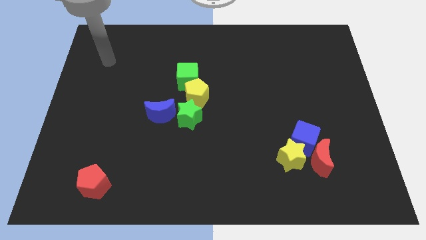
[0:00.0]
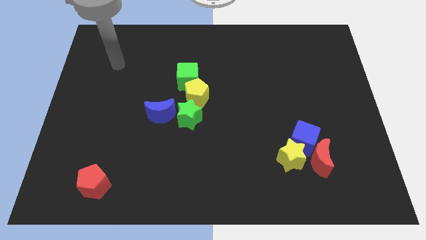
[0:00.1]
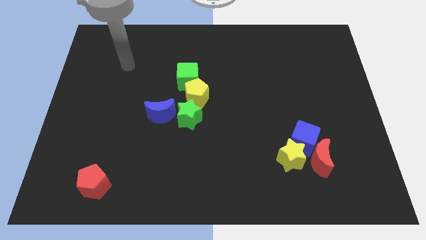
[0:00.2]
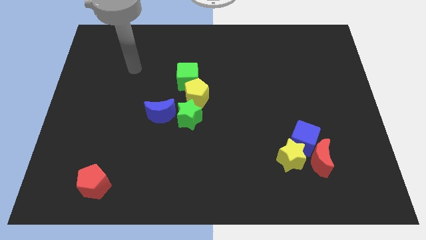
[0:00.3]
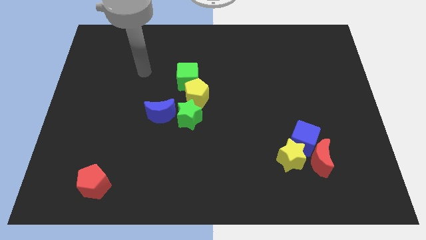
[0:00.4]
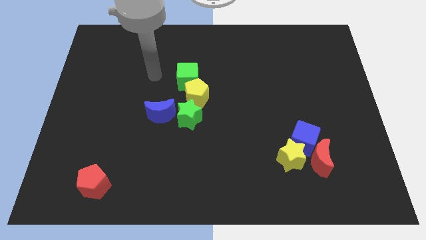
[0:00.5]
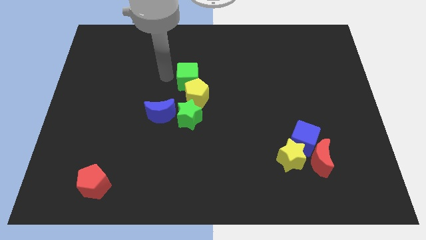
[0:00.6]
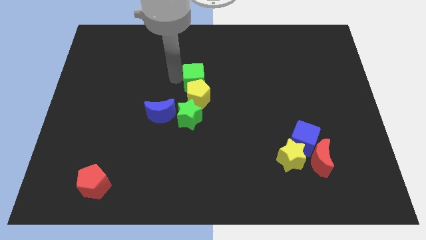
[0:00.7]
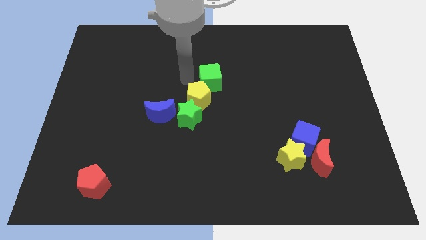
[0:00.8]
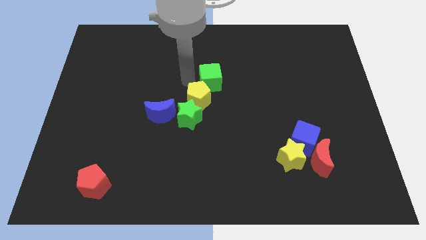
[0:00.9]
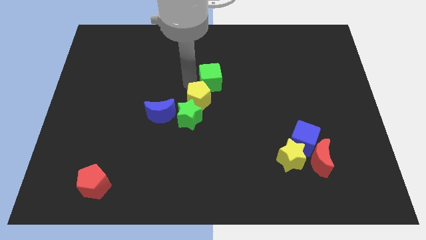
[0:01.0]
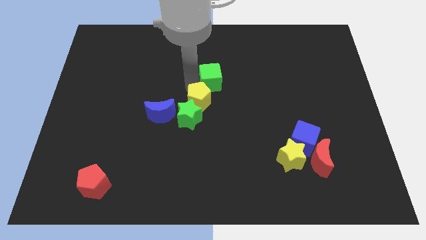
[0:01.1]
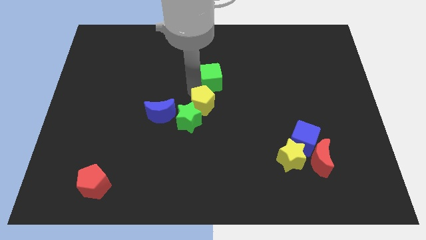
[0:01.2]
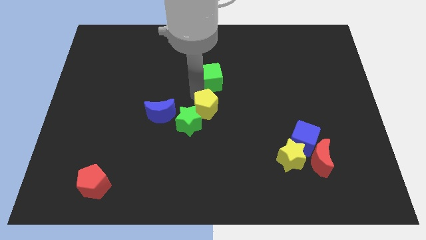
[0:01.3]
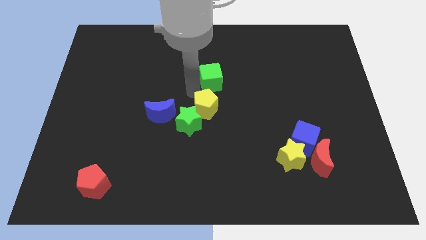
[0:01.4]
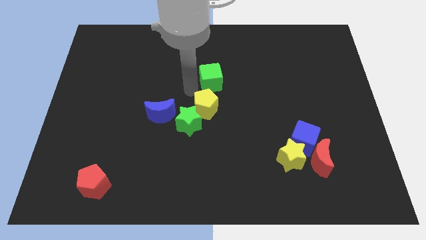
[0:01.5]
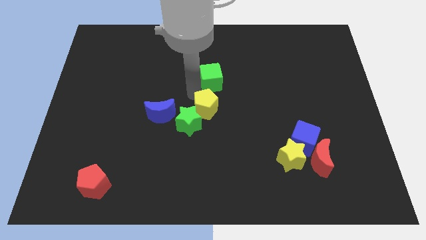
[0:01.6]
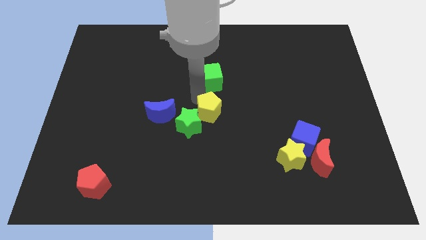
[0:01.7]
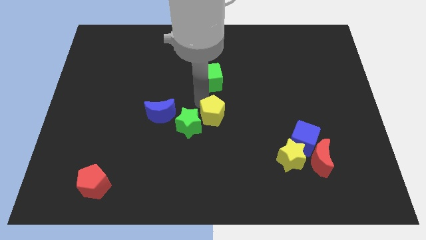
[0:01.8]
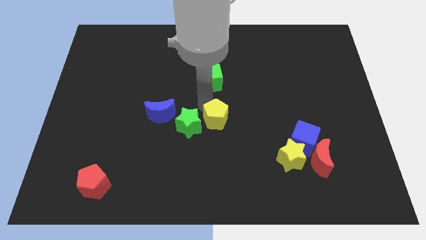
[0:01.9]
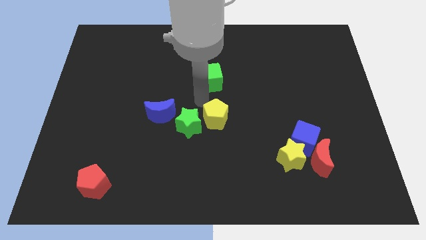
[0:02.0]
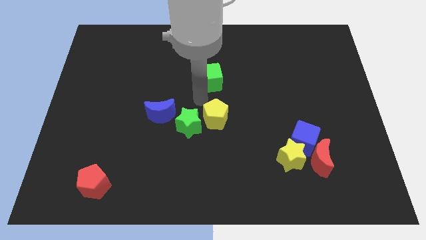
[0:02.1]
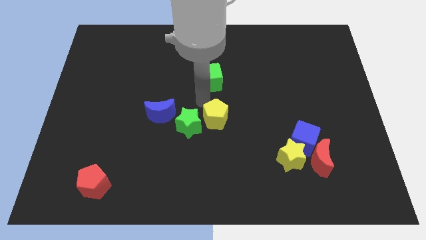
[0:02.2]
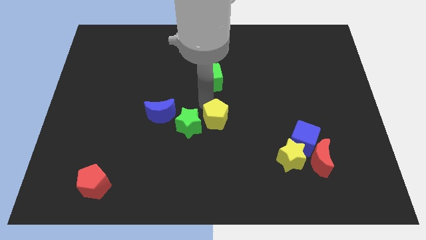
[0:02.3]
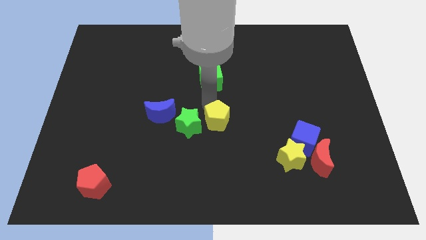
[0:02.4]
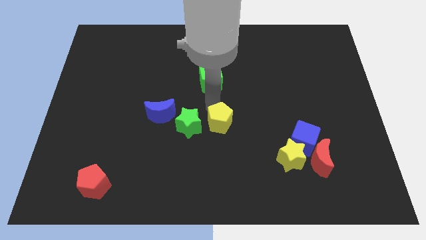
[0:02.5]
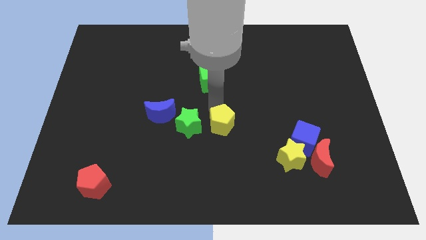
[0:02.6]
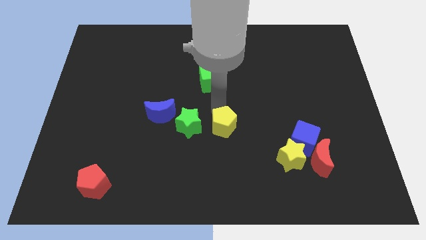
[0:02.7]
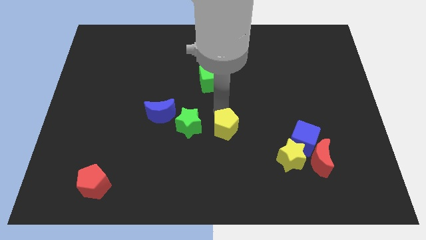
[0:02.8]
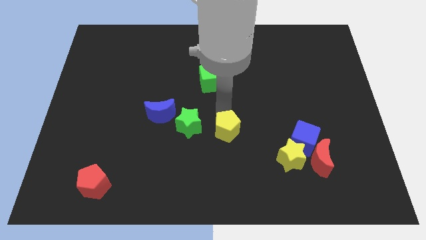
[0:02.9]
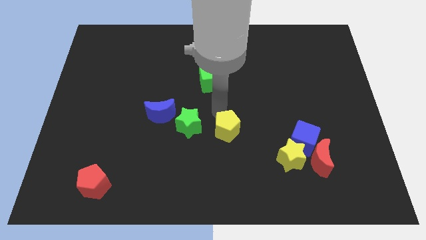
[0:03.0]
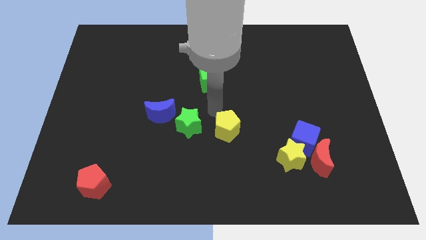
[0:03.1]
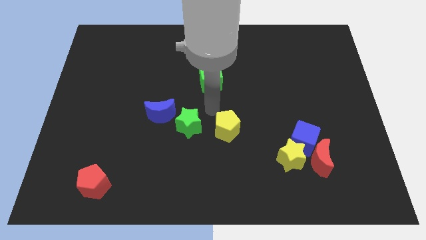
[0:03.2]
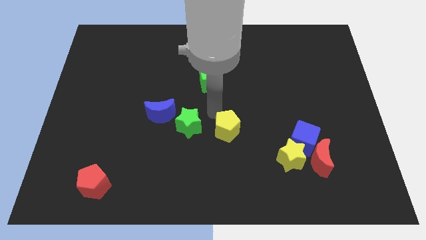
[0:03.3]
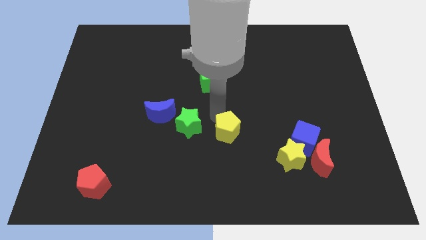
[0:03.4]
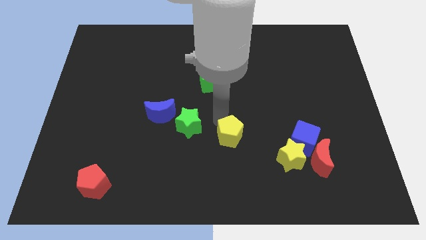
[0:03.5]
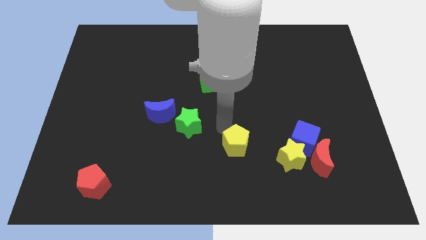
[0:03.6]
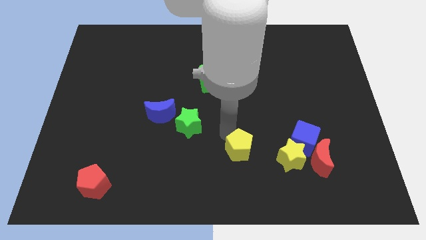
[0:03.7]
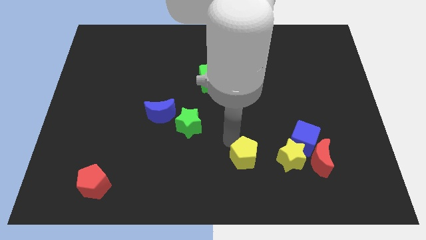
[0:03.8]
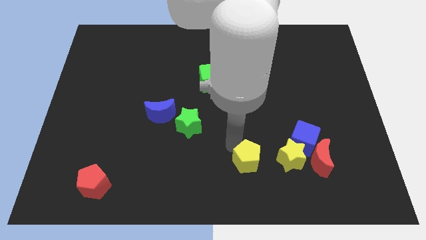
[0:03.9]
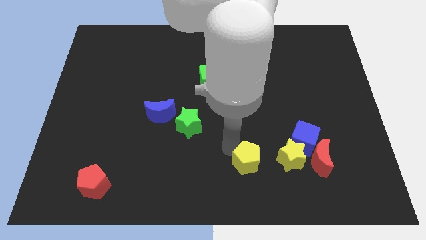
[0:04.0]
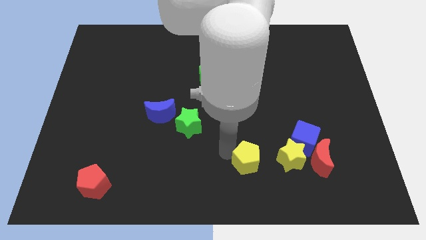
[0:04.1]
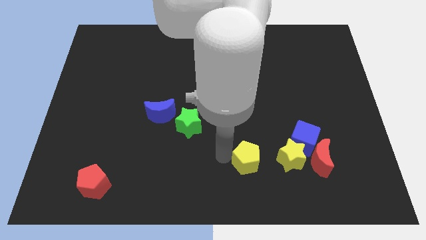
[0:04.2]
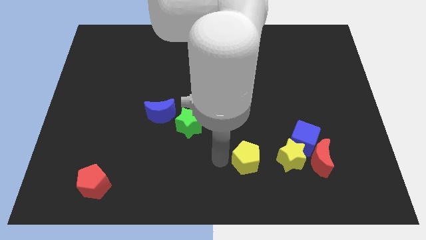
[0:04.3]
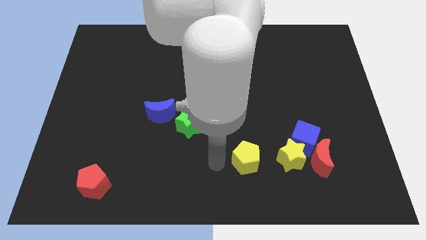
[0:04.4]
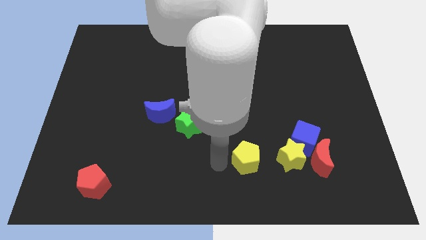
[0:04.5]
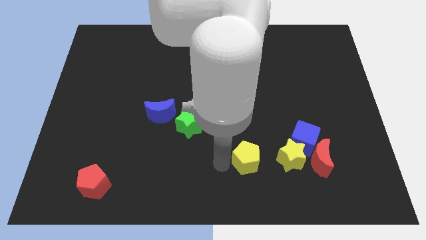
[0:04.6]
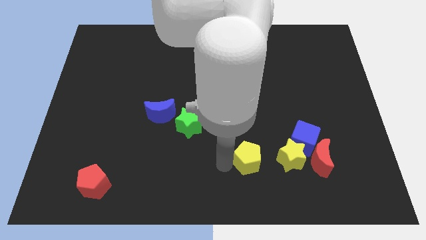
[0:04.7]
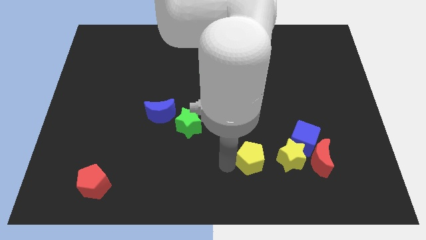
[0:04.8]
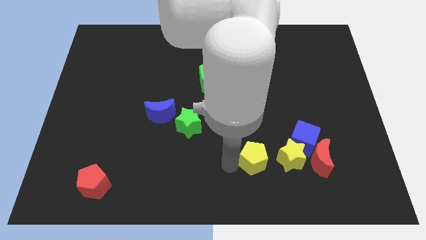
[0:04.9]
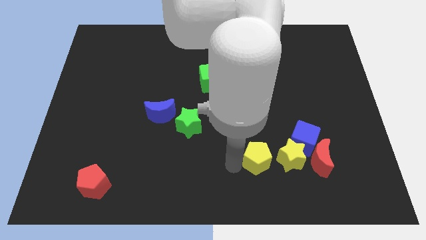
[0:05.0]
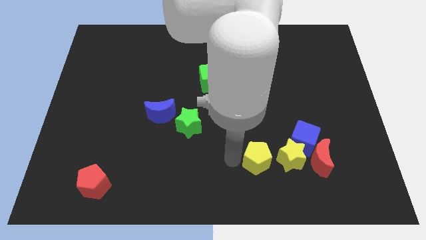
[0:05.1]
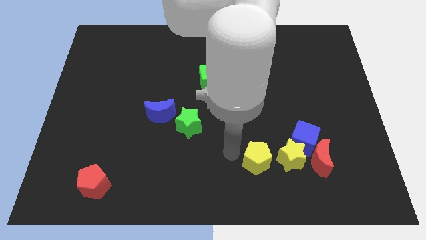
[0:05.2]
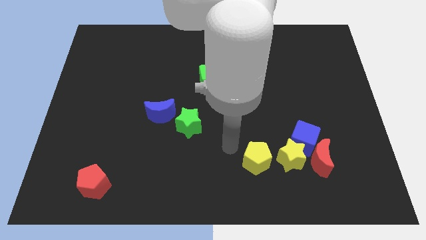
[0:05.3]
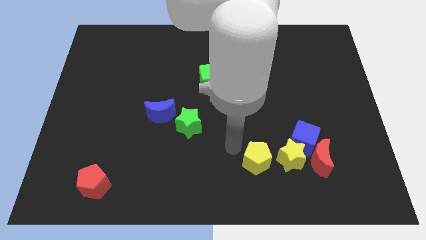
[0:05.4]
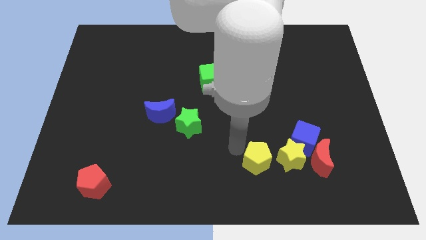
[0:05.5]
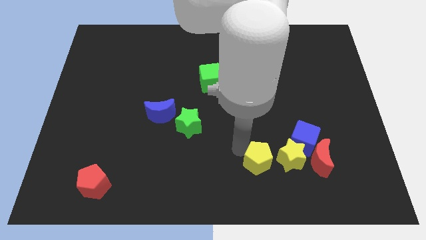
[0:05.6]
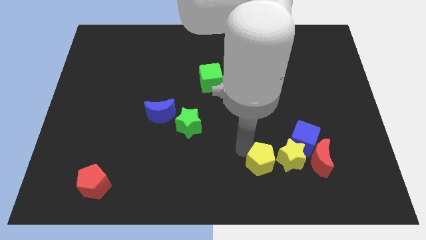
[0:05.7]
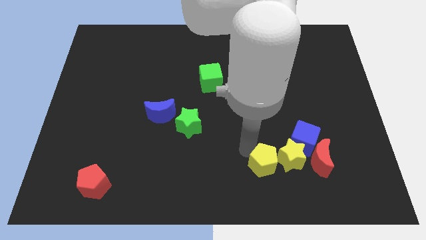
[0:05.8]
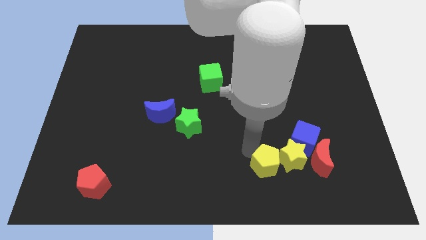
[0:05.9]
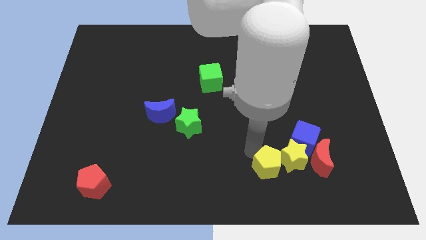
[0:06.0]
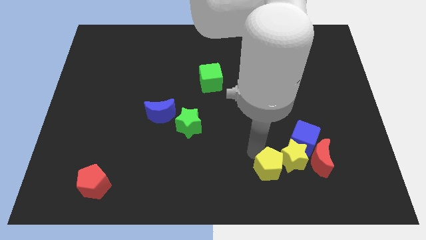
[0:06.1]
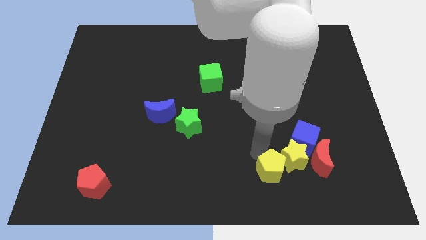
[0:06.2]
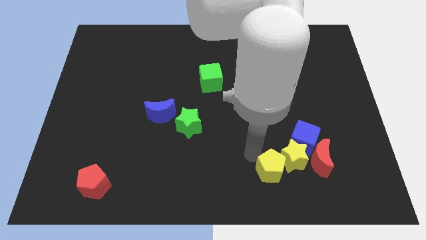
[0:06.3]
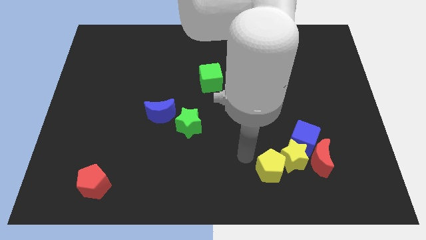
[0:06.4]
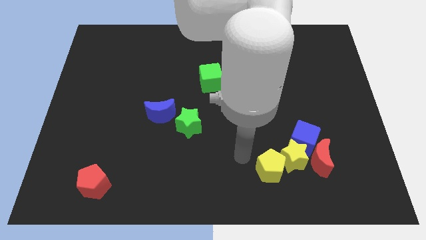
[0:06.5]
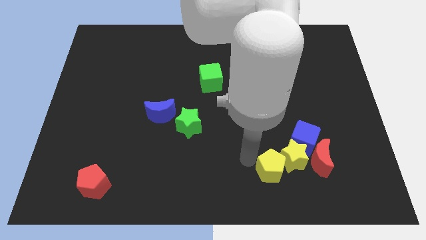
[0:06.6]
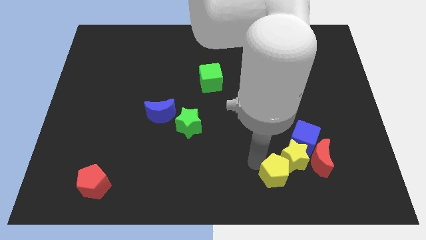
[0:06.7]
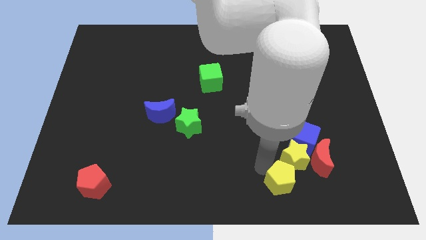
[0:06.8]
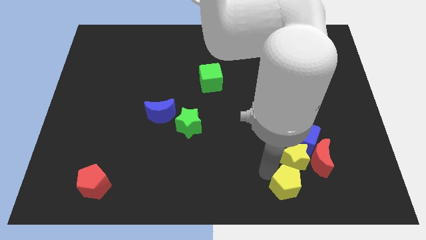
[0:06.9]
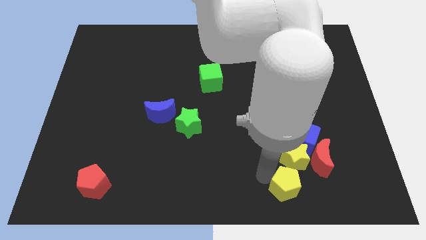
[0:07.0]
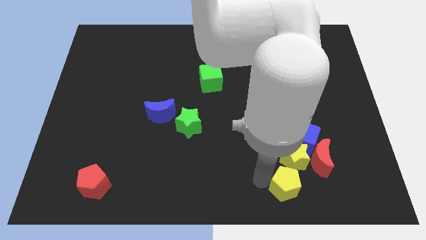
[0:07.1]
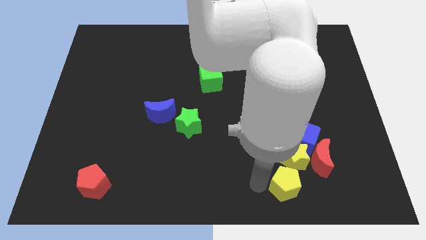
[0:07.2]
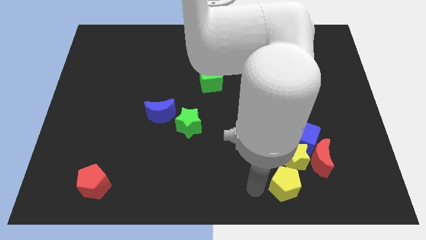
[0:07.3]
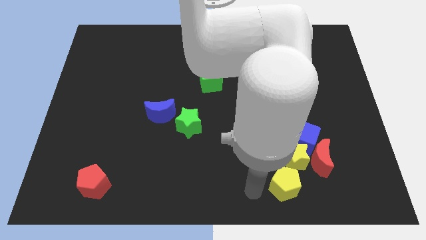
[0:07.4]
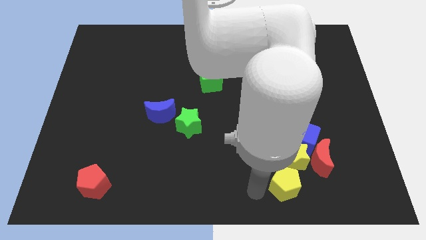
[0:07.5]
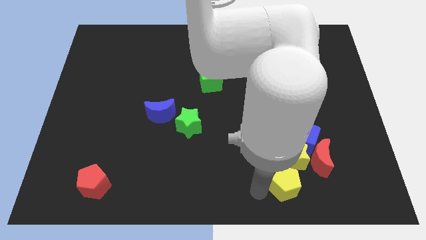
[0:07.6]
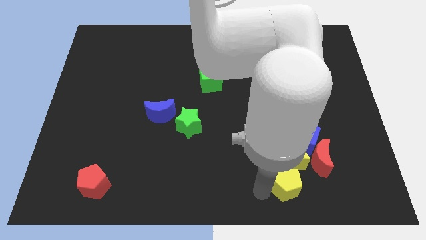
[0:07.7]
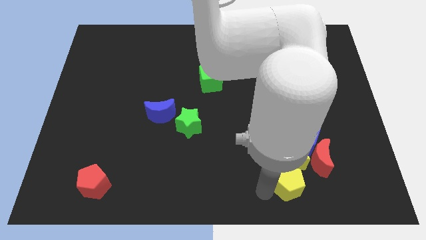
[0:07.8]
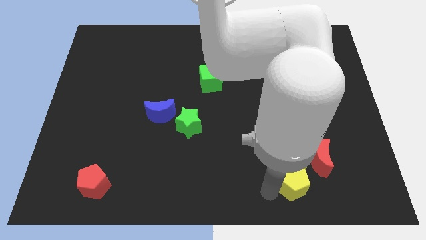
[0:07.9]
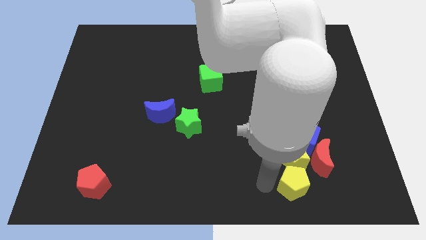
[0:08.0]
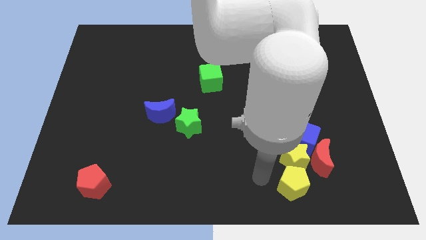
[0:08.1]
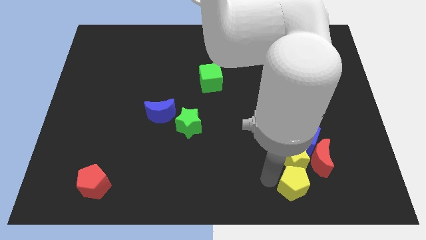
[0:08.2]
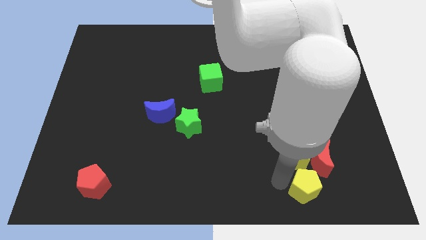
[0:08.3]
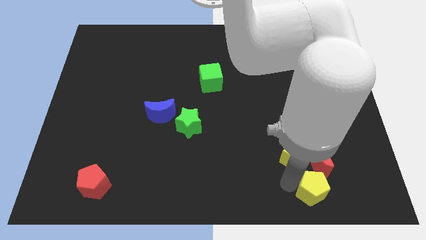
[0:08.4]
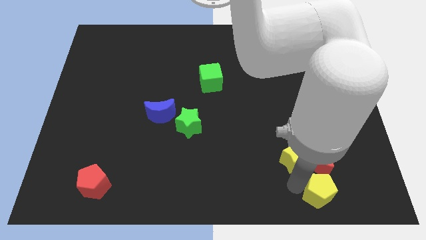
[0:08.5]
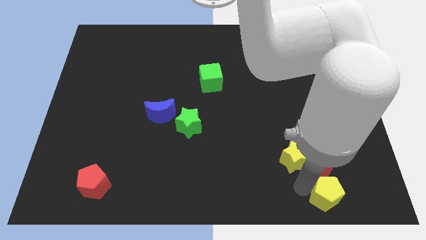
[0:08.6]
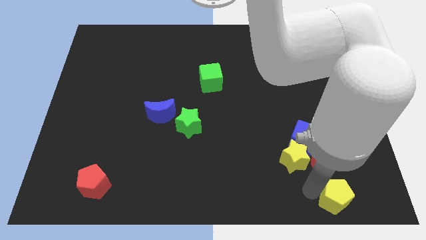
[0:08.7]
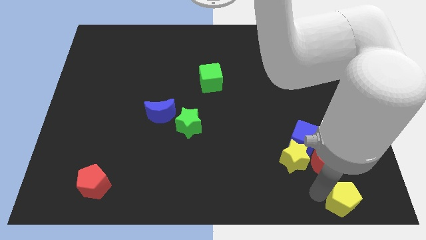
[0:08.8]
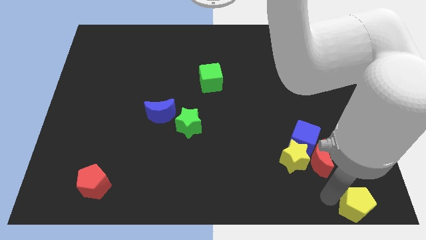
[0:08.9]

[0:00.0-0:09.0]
slide the yellow pentagon to the bottom right of the board
